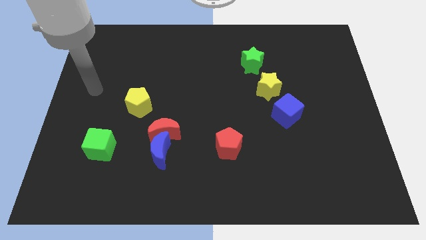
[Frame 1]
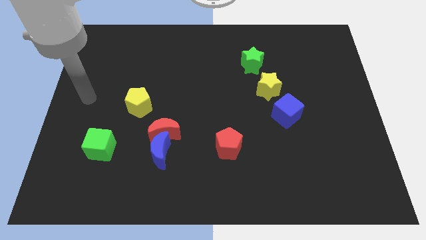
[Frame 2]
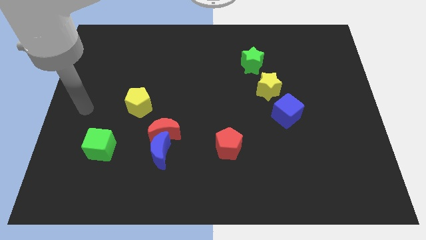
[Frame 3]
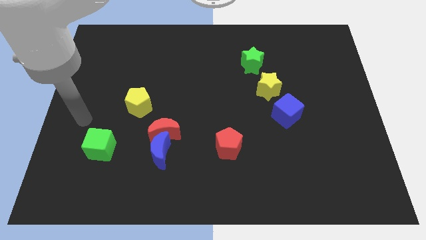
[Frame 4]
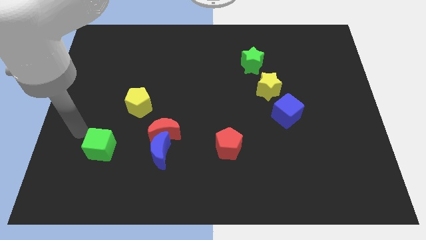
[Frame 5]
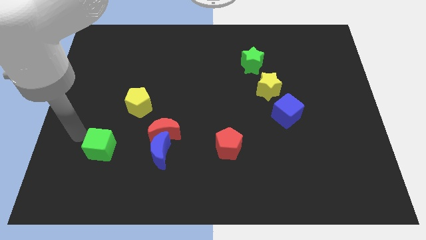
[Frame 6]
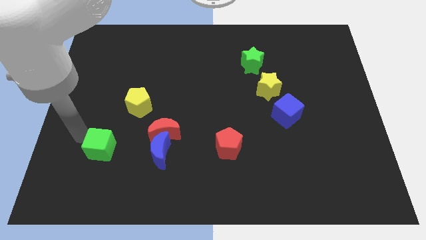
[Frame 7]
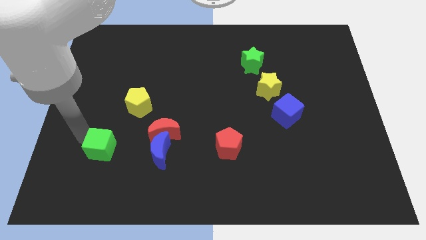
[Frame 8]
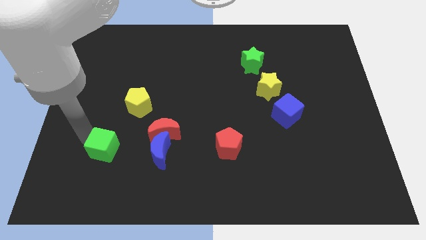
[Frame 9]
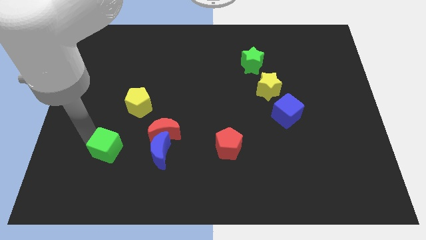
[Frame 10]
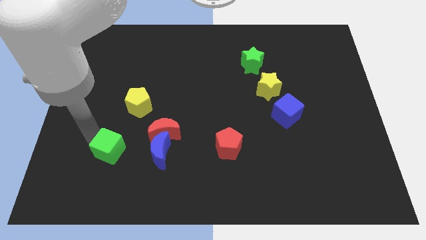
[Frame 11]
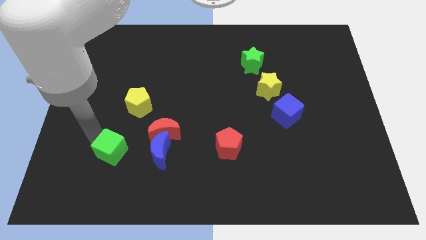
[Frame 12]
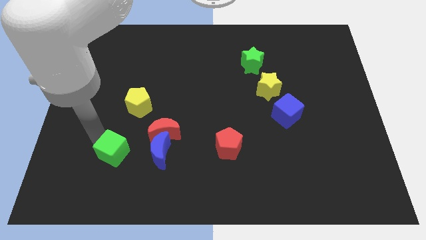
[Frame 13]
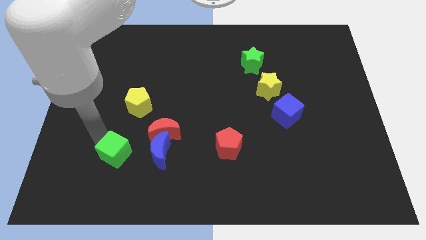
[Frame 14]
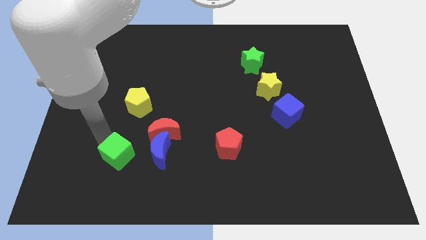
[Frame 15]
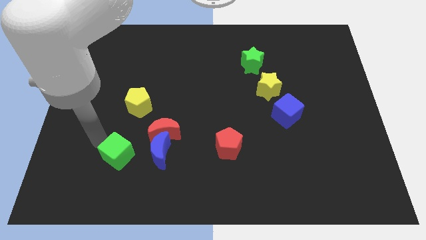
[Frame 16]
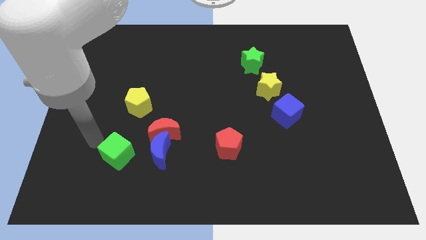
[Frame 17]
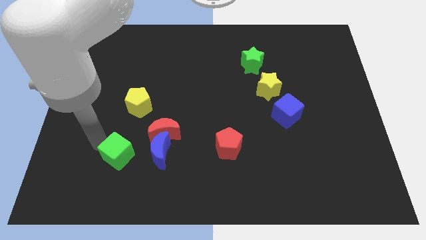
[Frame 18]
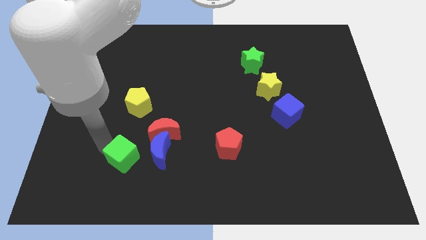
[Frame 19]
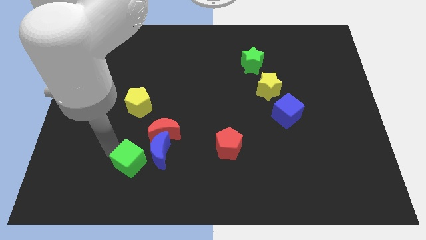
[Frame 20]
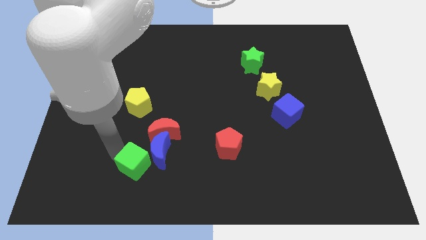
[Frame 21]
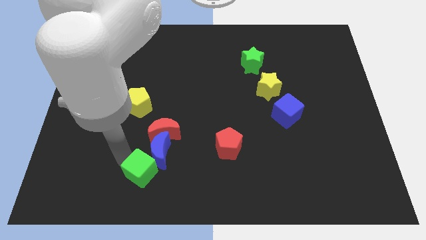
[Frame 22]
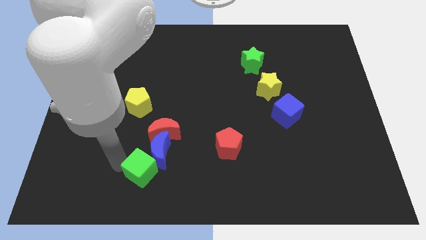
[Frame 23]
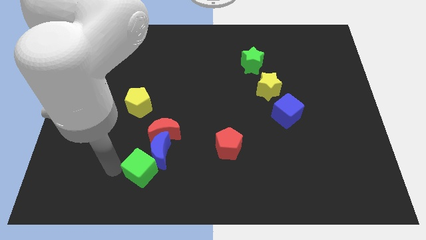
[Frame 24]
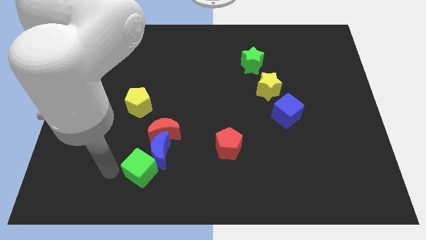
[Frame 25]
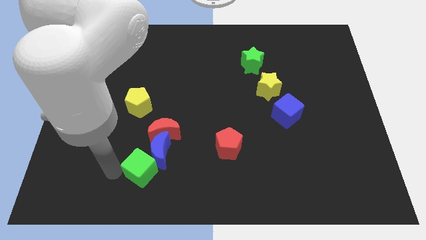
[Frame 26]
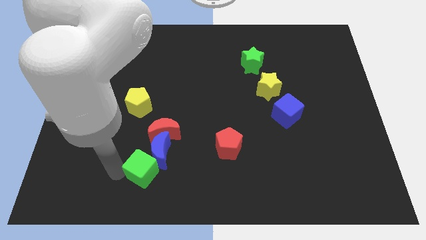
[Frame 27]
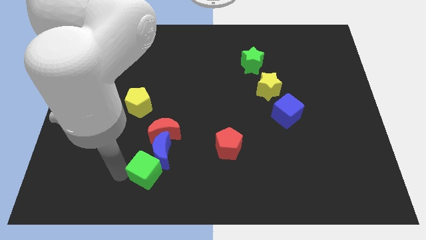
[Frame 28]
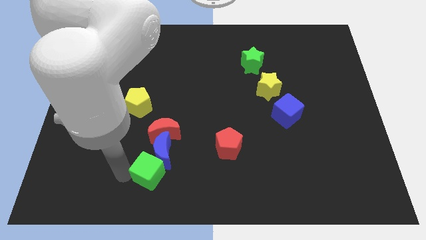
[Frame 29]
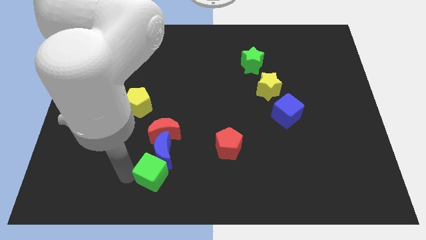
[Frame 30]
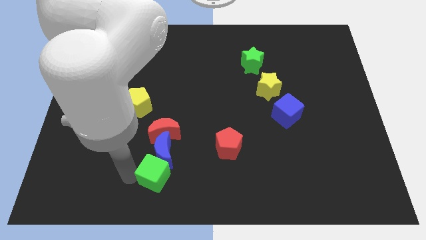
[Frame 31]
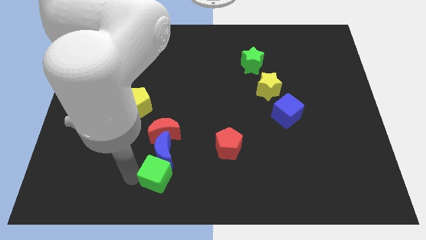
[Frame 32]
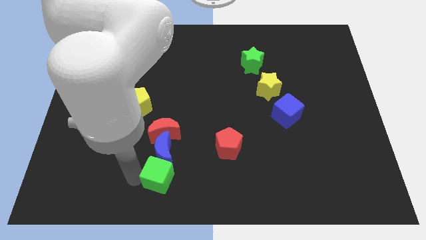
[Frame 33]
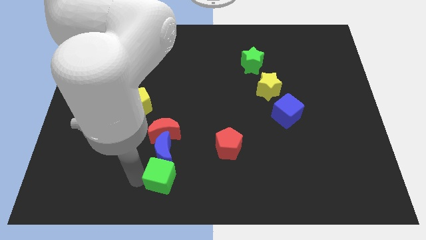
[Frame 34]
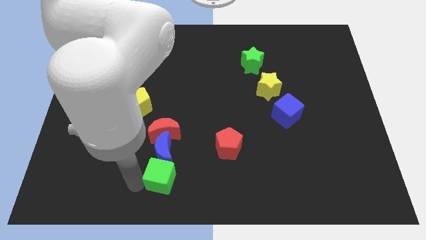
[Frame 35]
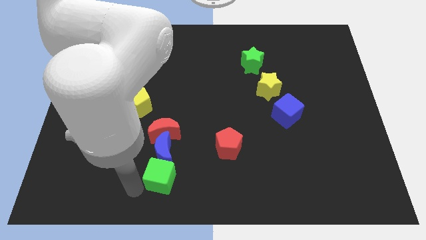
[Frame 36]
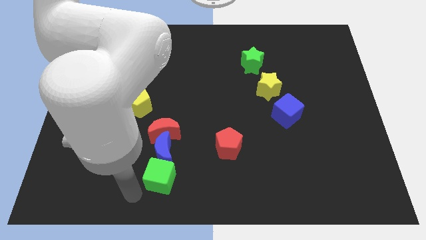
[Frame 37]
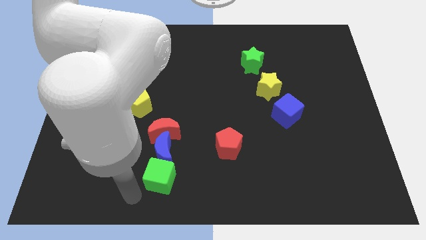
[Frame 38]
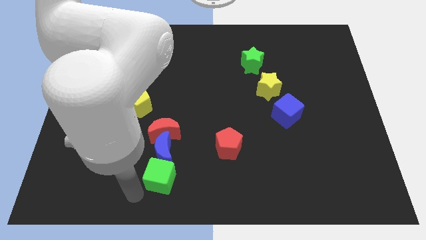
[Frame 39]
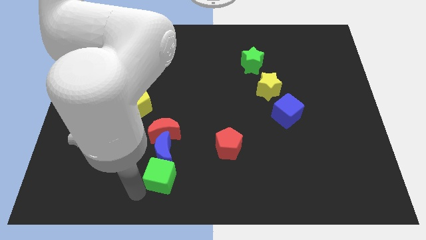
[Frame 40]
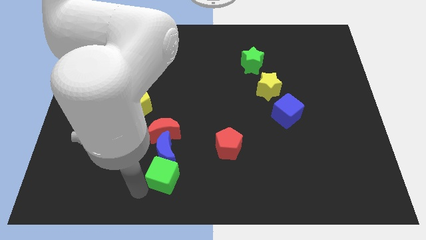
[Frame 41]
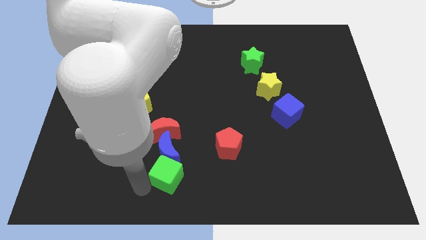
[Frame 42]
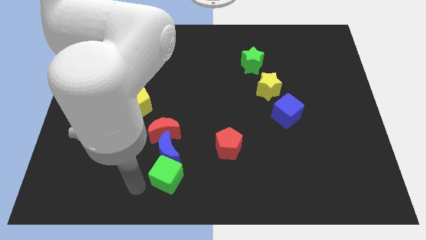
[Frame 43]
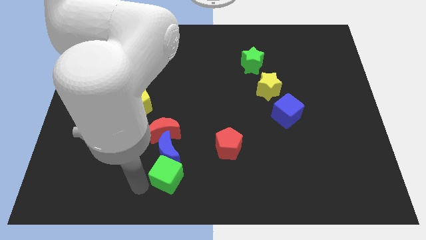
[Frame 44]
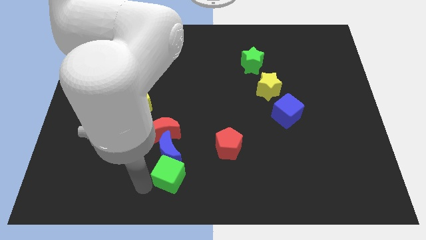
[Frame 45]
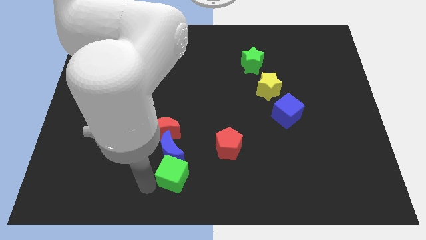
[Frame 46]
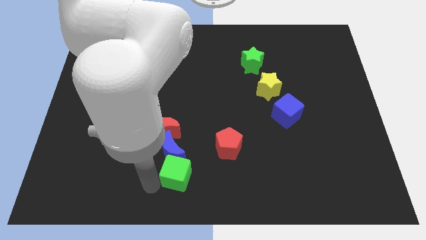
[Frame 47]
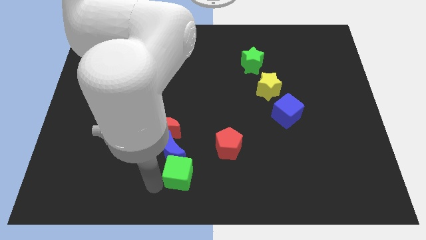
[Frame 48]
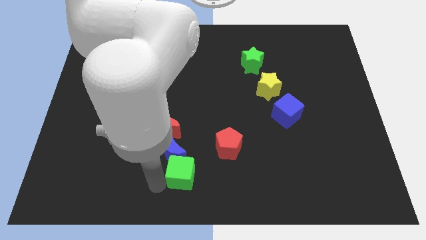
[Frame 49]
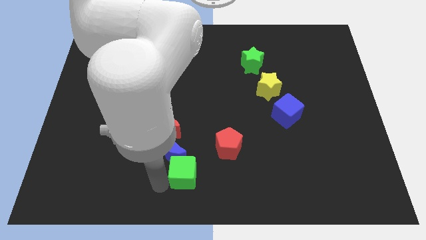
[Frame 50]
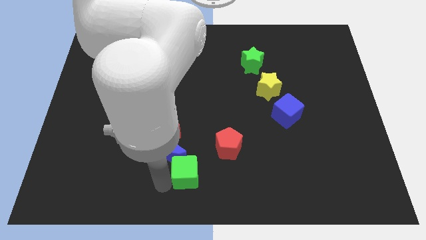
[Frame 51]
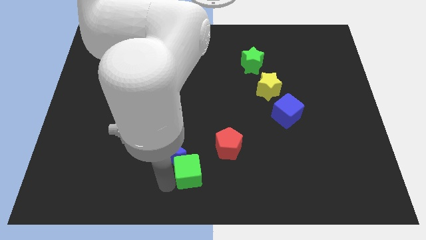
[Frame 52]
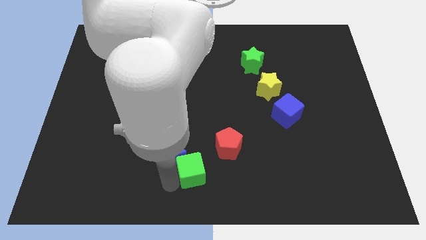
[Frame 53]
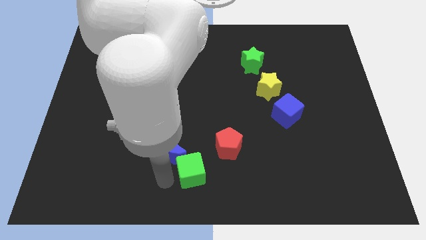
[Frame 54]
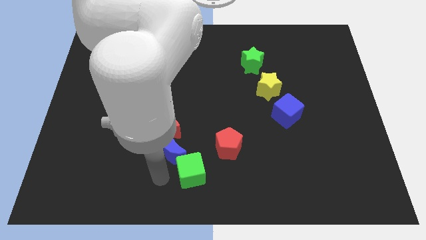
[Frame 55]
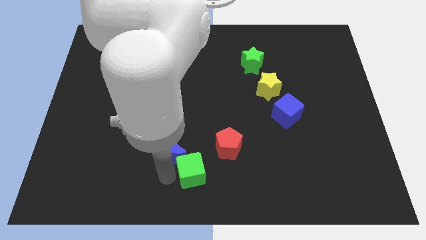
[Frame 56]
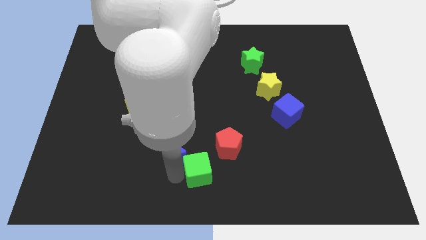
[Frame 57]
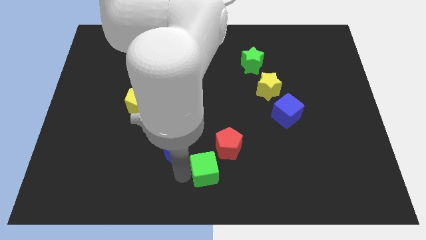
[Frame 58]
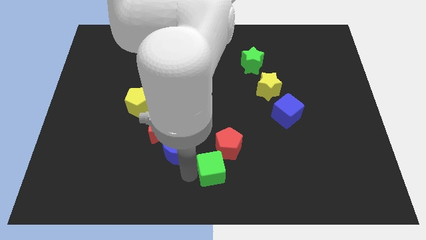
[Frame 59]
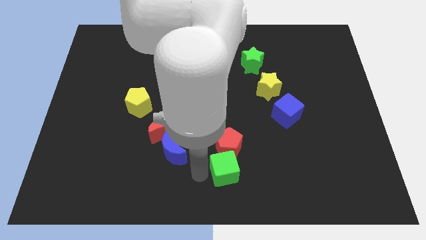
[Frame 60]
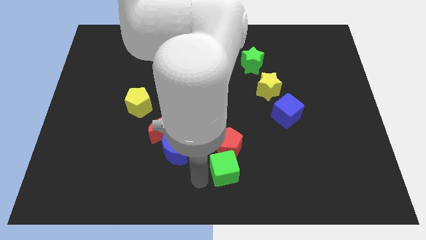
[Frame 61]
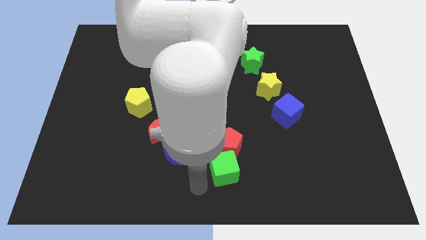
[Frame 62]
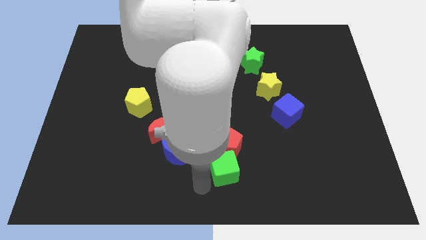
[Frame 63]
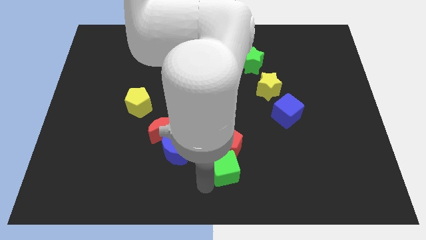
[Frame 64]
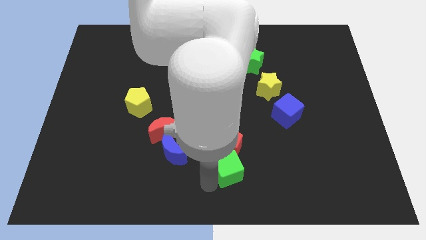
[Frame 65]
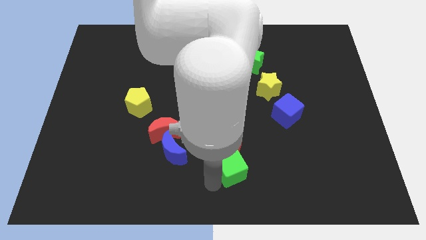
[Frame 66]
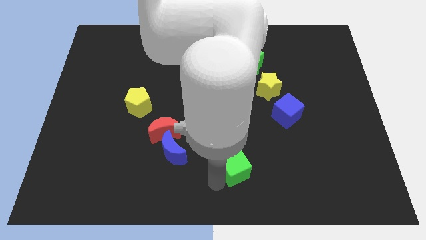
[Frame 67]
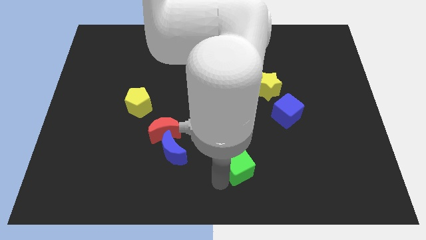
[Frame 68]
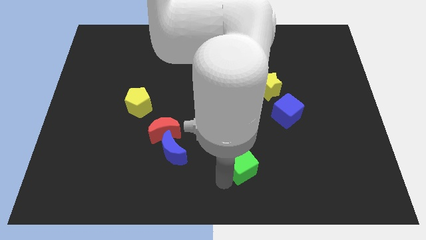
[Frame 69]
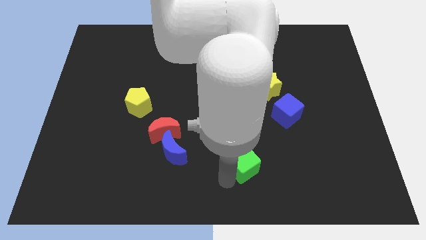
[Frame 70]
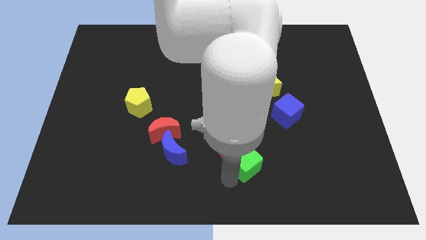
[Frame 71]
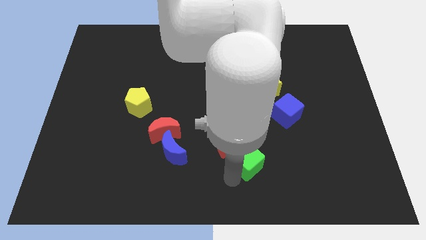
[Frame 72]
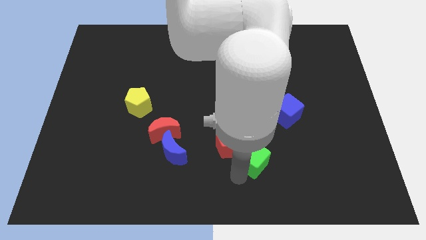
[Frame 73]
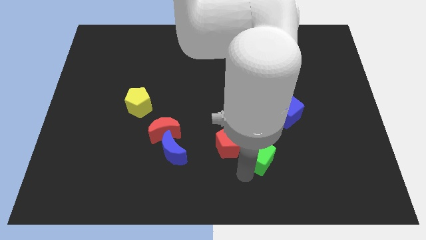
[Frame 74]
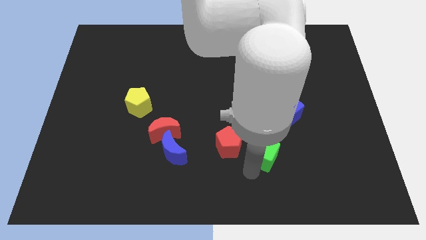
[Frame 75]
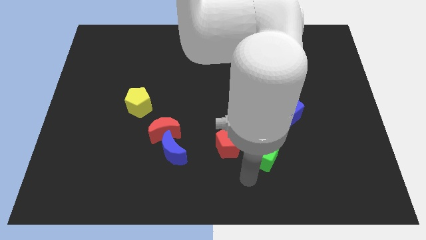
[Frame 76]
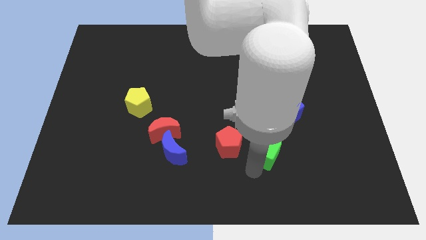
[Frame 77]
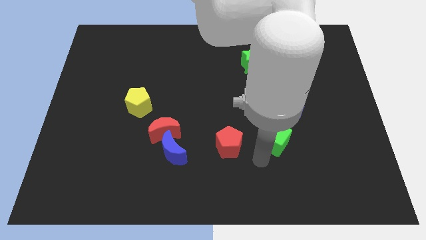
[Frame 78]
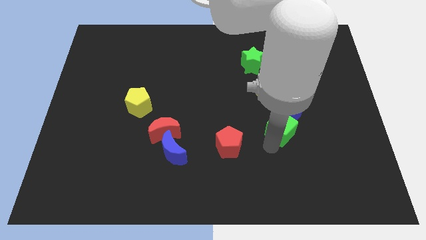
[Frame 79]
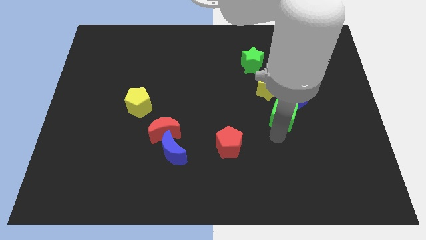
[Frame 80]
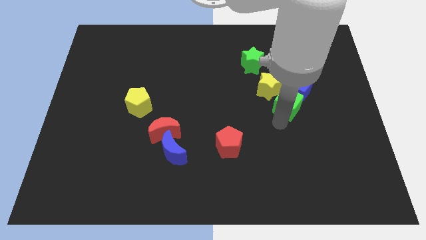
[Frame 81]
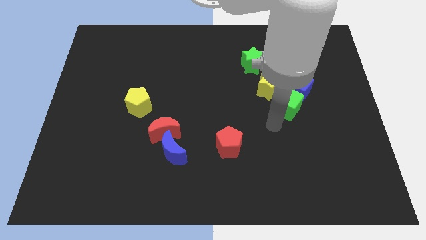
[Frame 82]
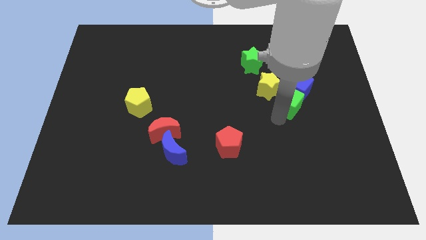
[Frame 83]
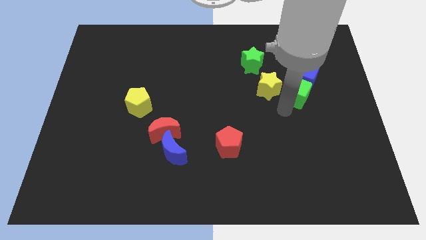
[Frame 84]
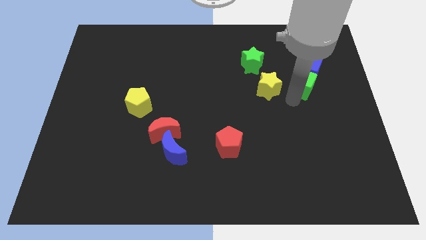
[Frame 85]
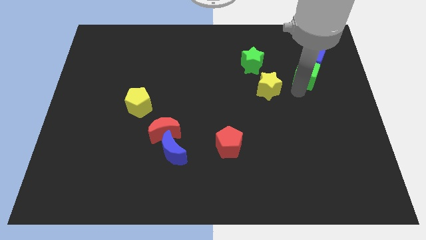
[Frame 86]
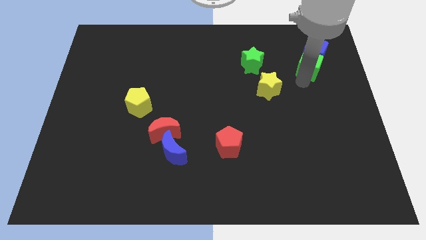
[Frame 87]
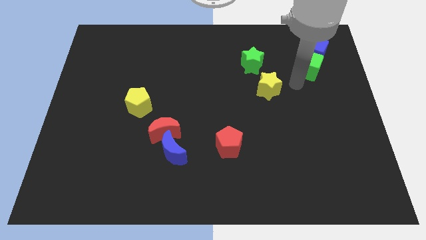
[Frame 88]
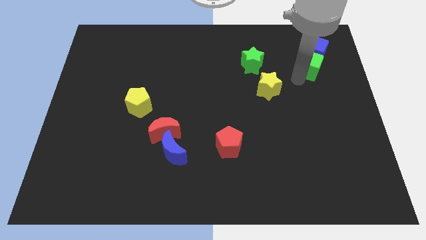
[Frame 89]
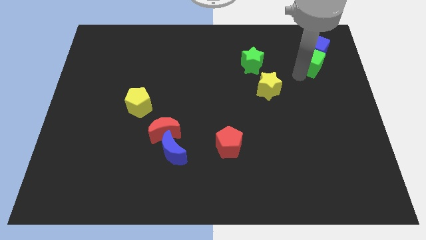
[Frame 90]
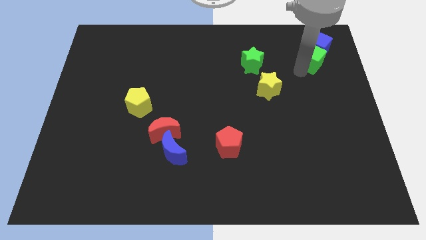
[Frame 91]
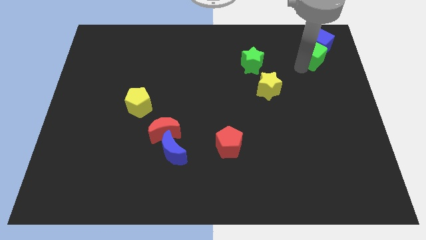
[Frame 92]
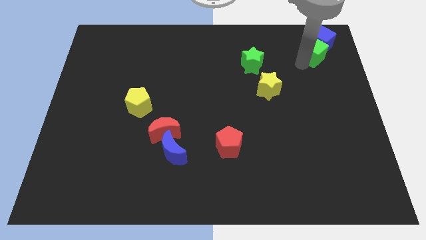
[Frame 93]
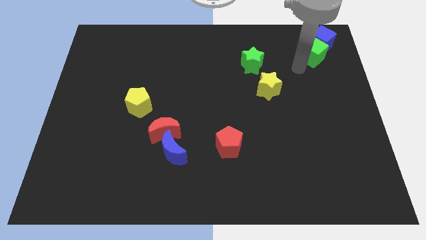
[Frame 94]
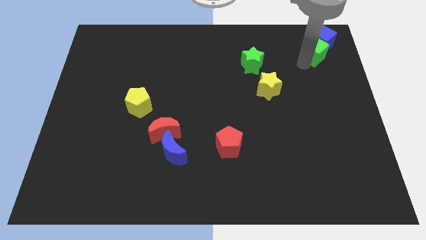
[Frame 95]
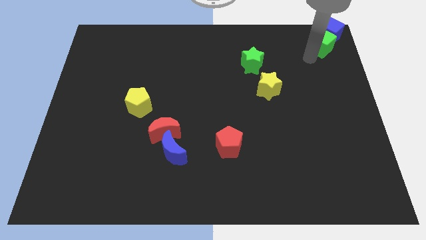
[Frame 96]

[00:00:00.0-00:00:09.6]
push the green cube to the top right of the board
